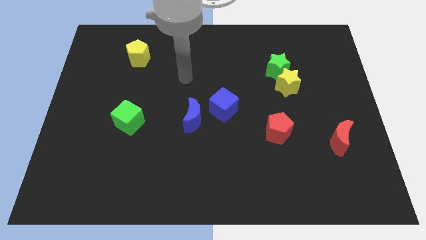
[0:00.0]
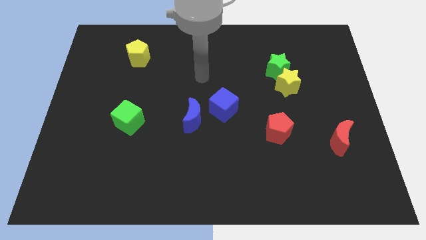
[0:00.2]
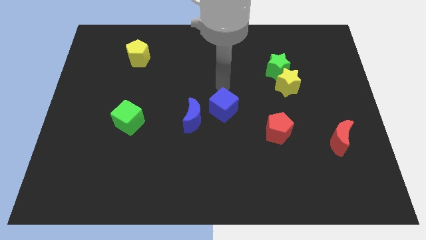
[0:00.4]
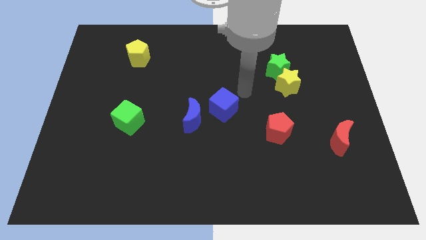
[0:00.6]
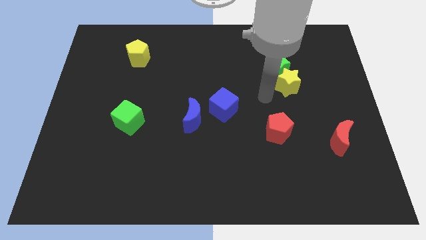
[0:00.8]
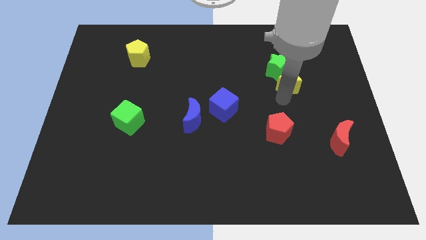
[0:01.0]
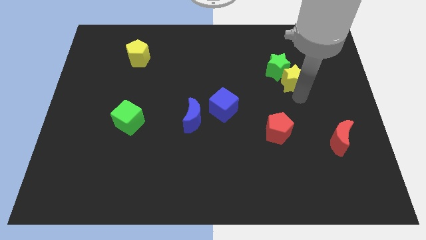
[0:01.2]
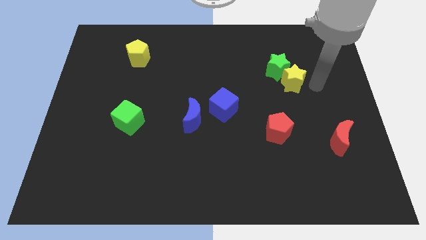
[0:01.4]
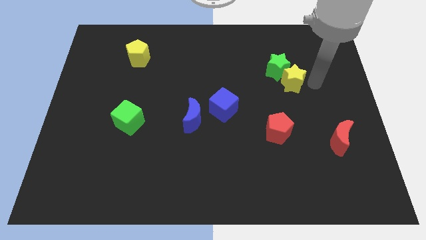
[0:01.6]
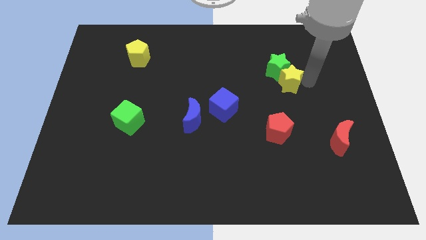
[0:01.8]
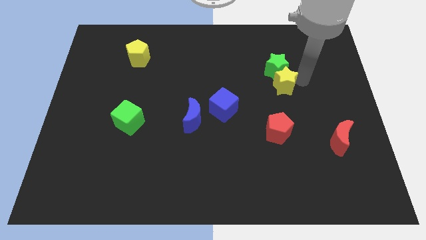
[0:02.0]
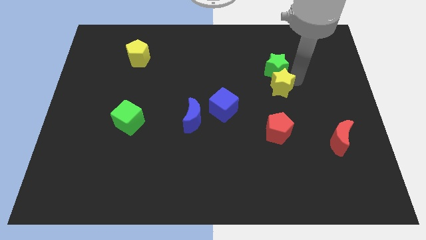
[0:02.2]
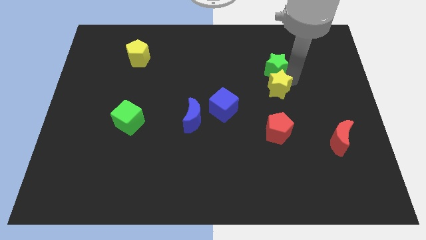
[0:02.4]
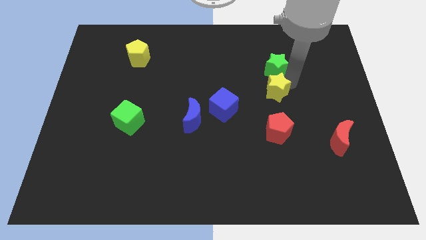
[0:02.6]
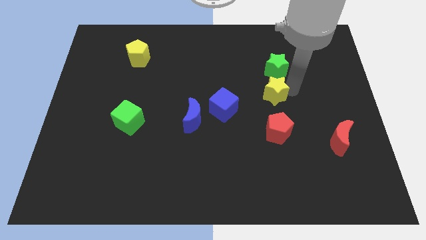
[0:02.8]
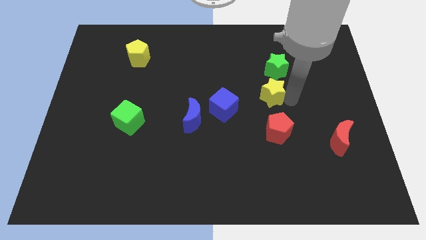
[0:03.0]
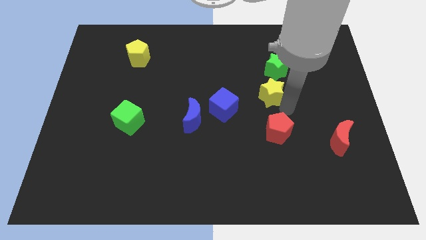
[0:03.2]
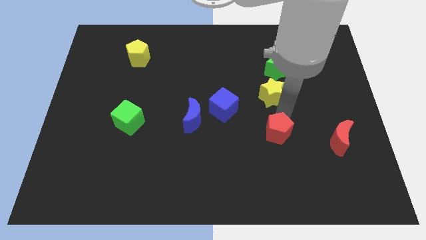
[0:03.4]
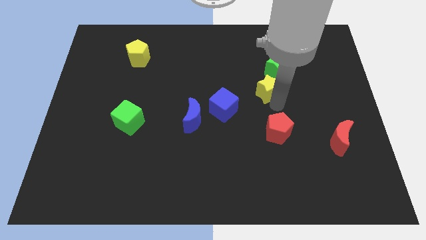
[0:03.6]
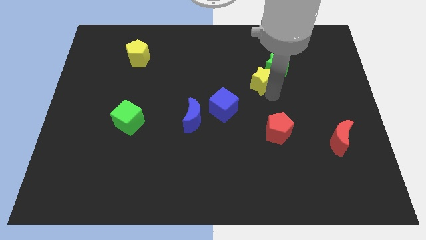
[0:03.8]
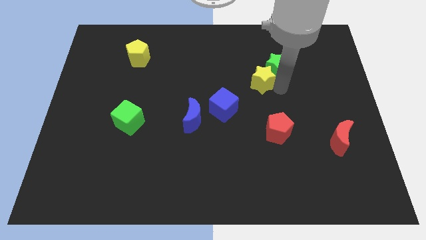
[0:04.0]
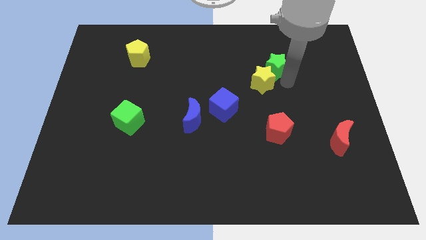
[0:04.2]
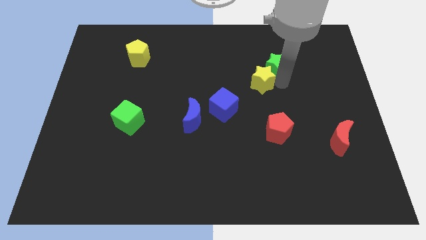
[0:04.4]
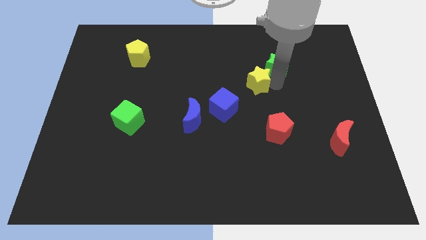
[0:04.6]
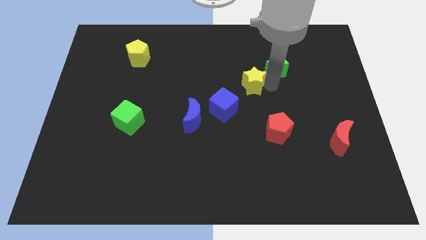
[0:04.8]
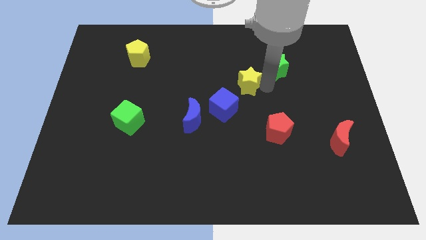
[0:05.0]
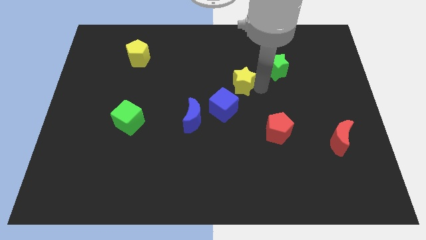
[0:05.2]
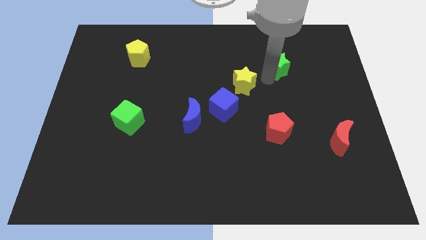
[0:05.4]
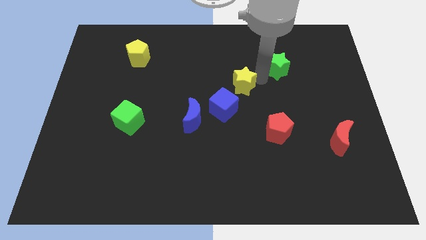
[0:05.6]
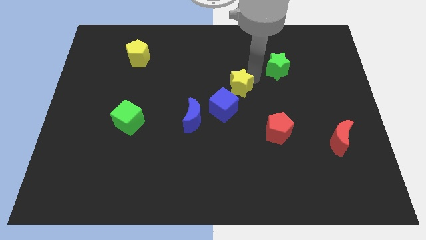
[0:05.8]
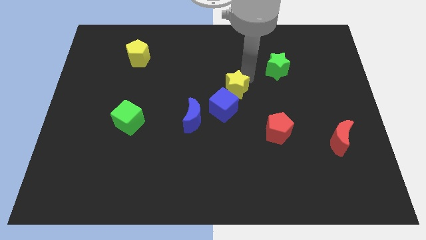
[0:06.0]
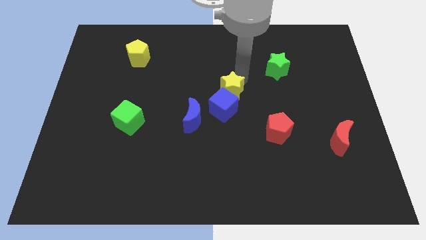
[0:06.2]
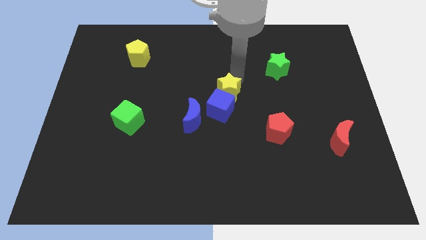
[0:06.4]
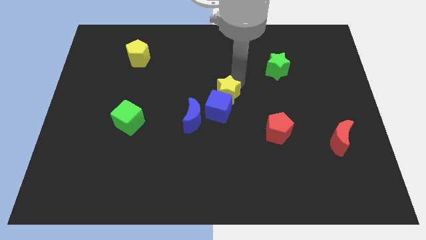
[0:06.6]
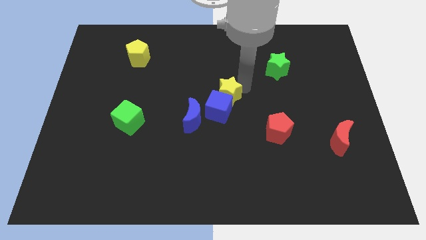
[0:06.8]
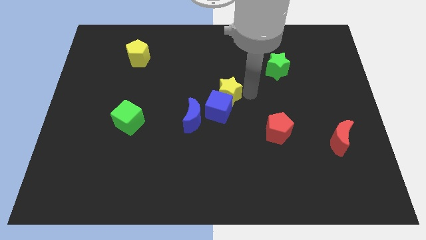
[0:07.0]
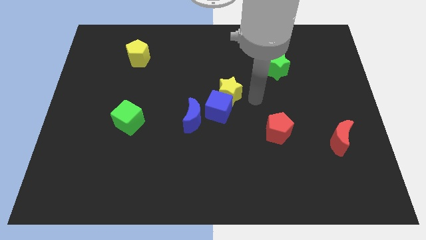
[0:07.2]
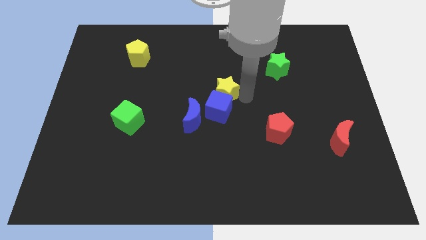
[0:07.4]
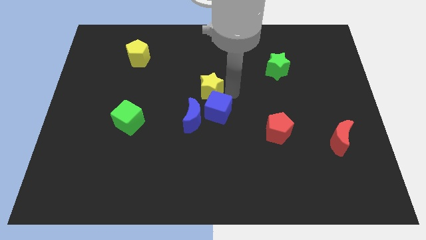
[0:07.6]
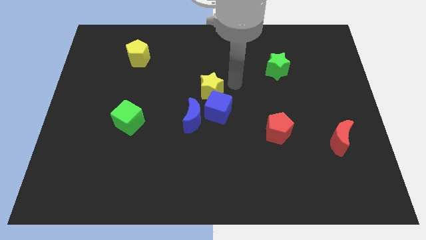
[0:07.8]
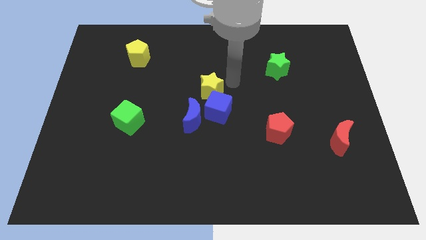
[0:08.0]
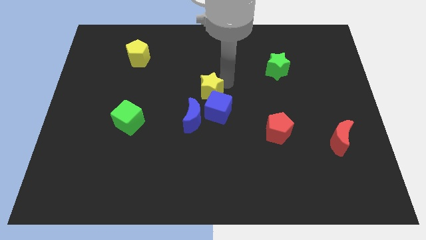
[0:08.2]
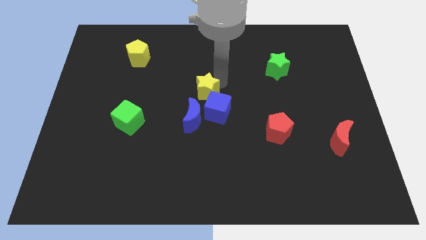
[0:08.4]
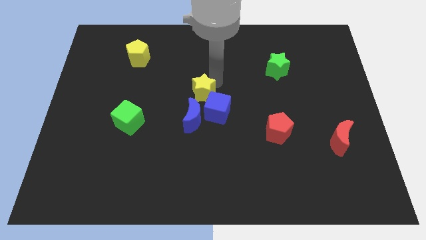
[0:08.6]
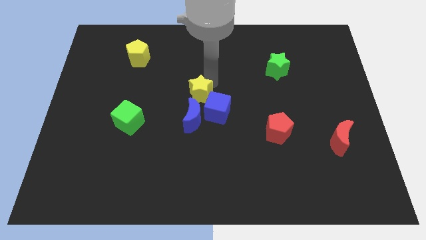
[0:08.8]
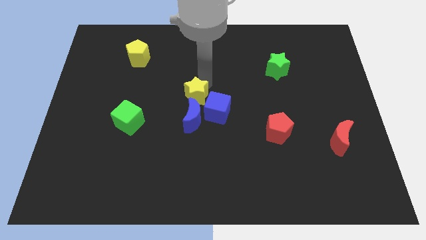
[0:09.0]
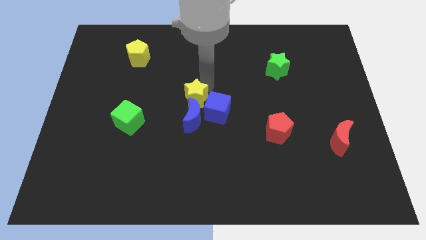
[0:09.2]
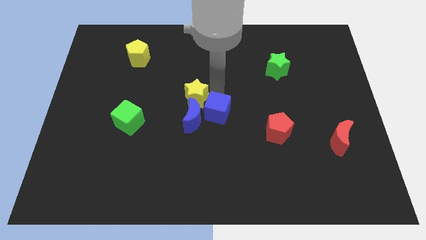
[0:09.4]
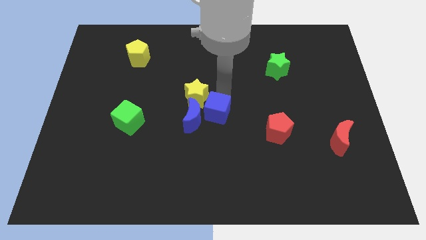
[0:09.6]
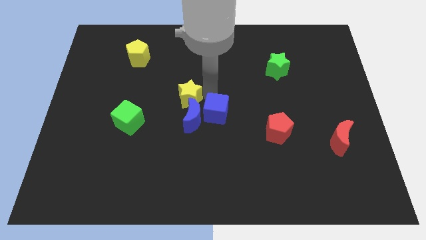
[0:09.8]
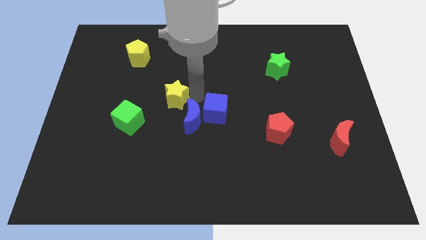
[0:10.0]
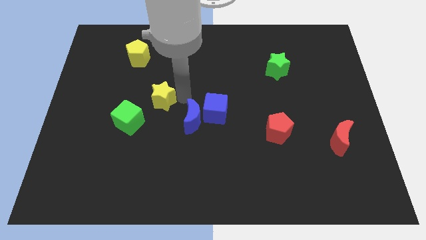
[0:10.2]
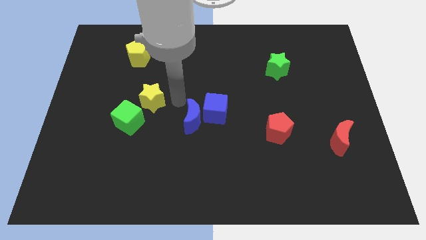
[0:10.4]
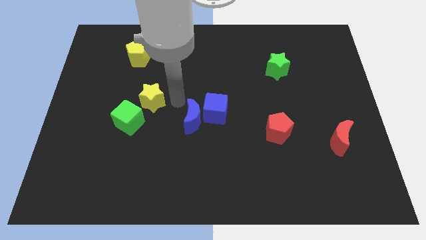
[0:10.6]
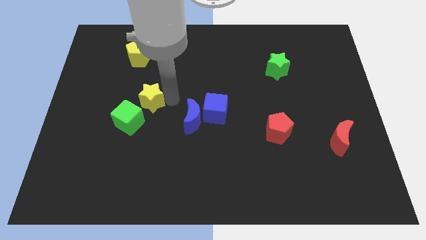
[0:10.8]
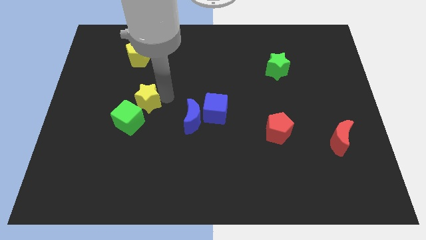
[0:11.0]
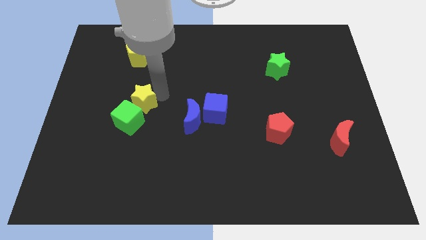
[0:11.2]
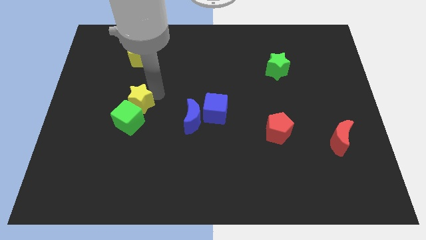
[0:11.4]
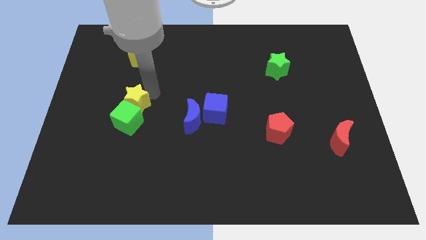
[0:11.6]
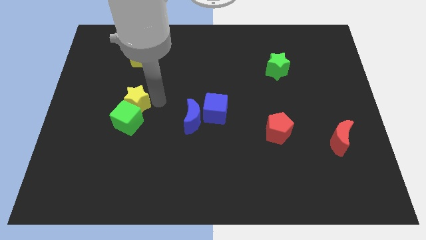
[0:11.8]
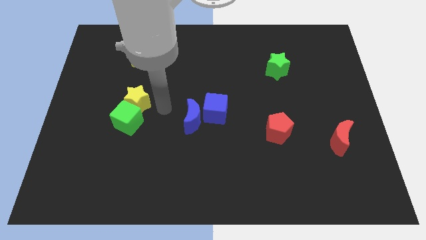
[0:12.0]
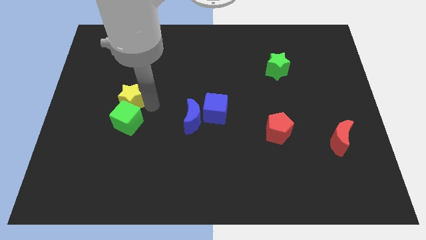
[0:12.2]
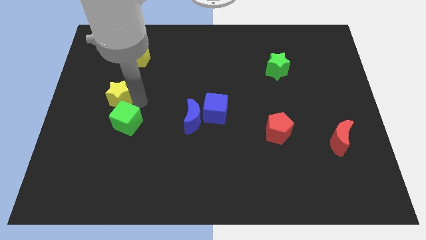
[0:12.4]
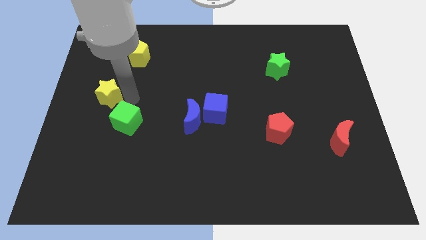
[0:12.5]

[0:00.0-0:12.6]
move the yellow star to the left side
